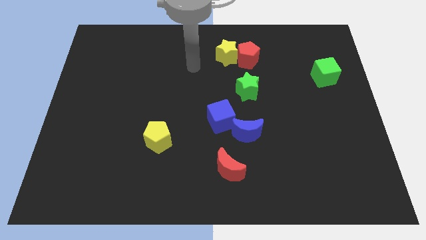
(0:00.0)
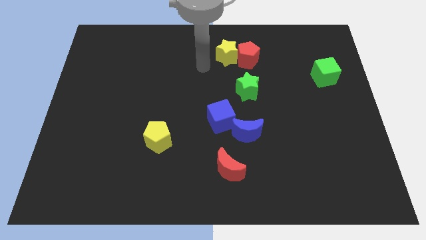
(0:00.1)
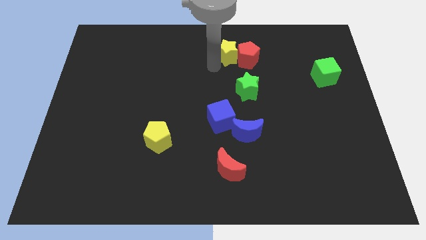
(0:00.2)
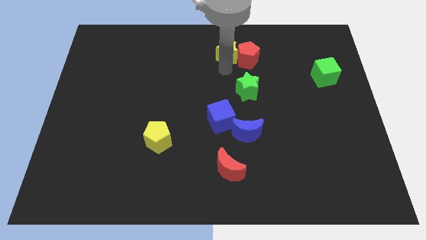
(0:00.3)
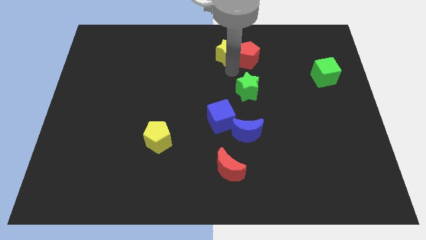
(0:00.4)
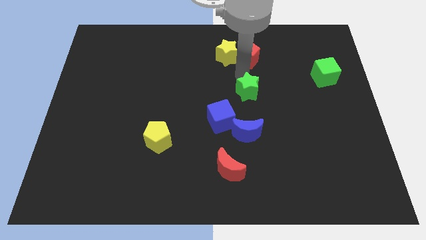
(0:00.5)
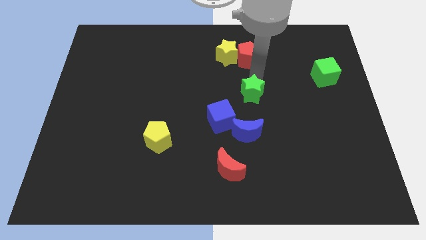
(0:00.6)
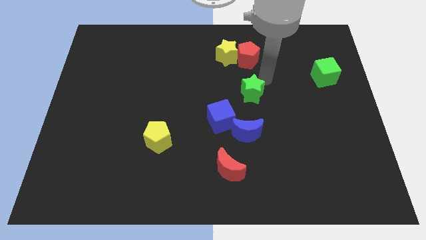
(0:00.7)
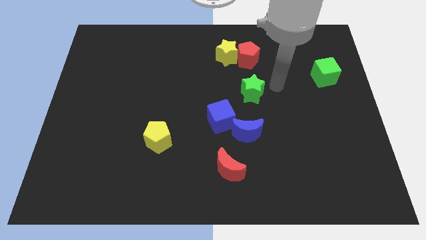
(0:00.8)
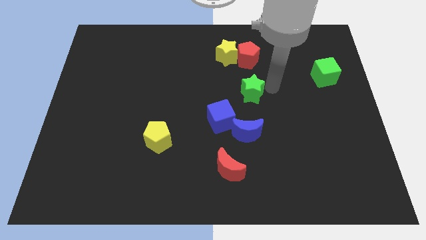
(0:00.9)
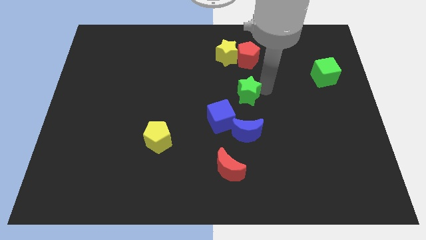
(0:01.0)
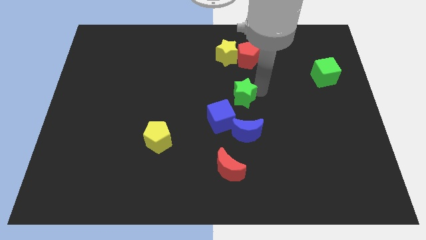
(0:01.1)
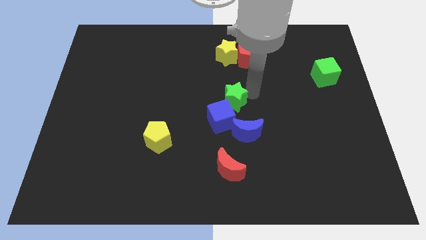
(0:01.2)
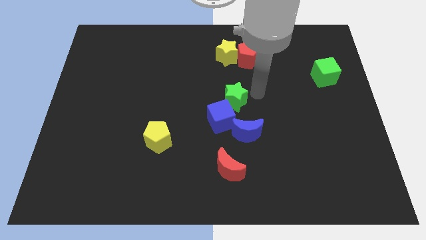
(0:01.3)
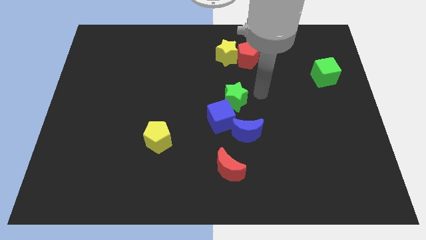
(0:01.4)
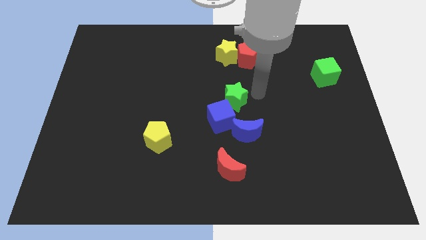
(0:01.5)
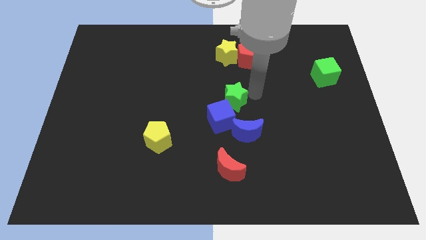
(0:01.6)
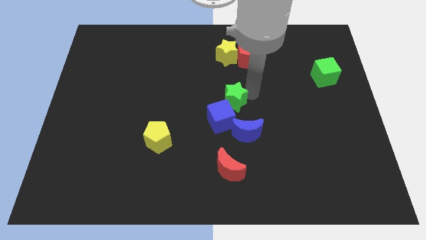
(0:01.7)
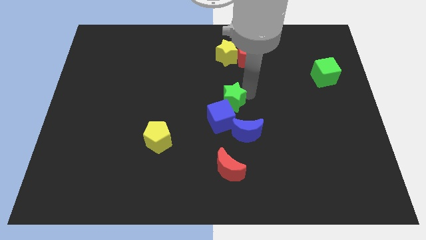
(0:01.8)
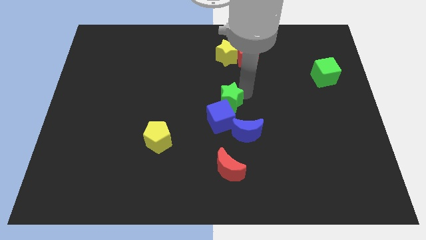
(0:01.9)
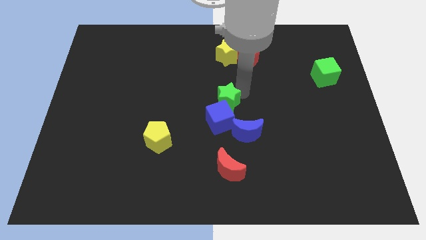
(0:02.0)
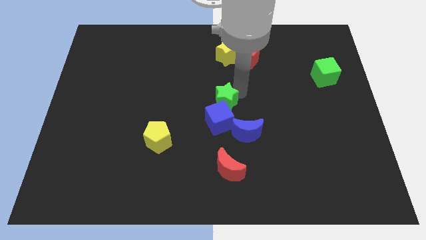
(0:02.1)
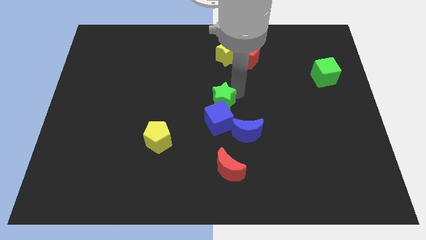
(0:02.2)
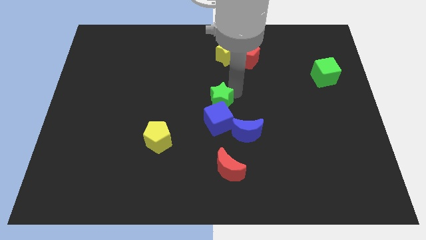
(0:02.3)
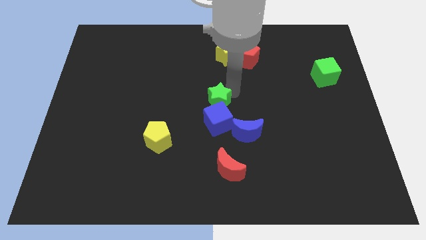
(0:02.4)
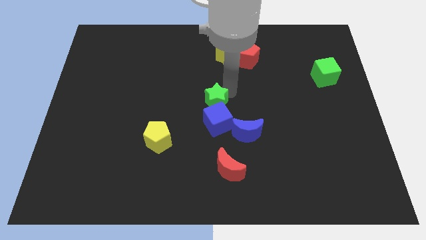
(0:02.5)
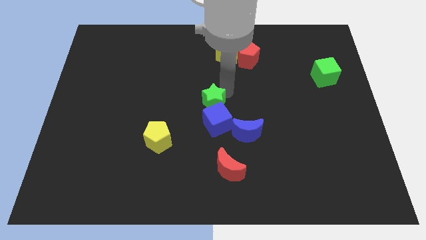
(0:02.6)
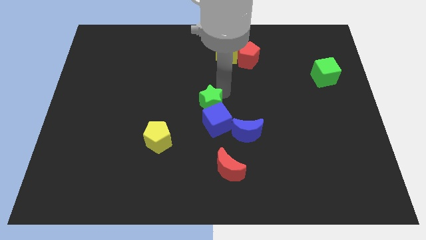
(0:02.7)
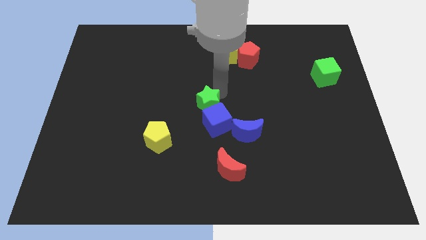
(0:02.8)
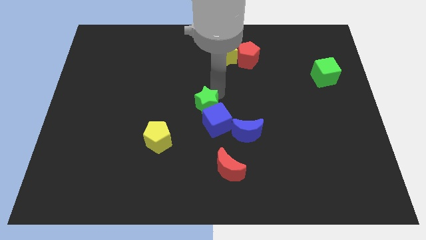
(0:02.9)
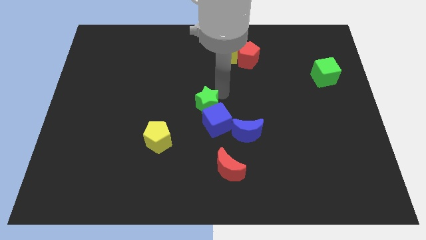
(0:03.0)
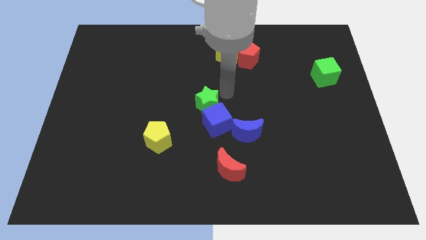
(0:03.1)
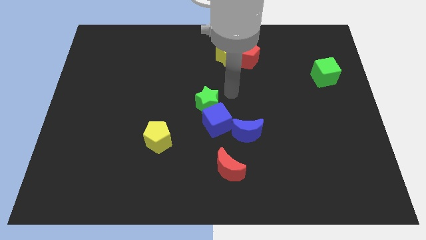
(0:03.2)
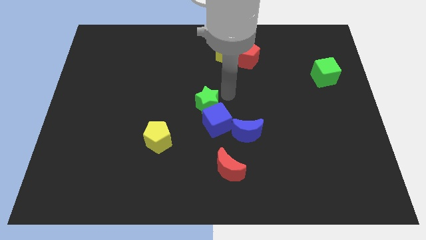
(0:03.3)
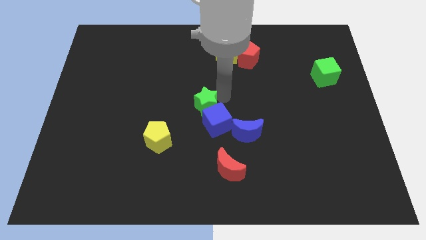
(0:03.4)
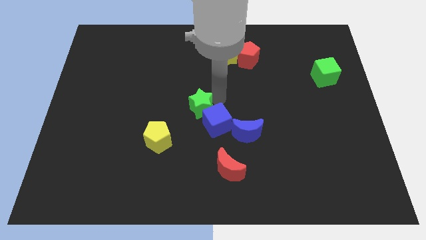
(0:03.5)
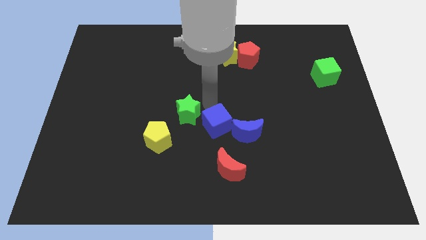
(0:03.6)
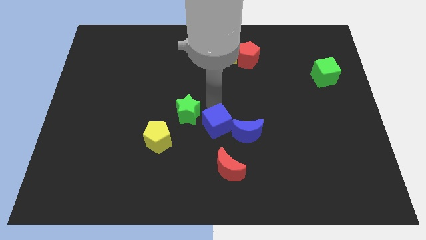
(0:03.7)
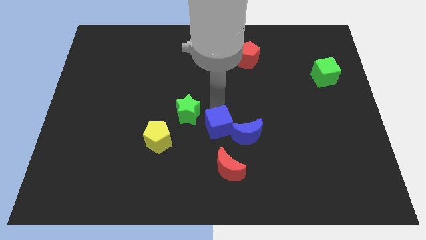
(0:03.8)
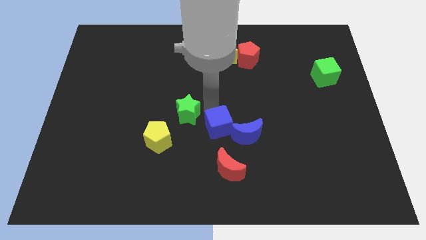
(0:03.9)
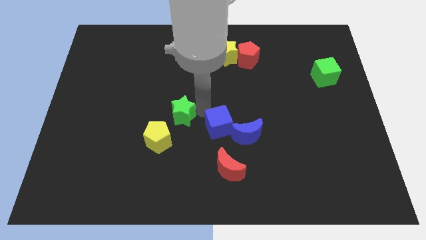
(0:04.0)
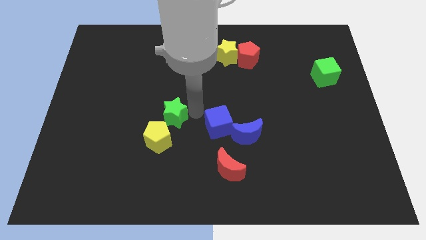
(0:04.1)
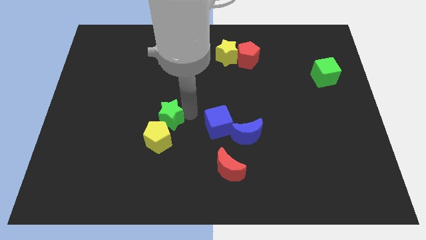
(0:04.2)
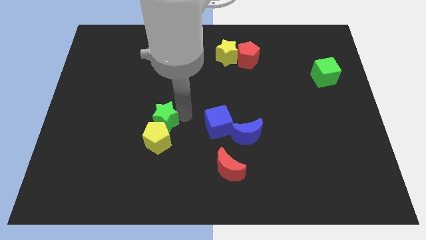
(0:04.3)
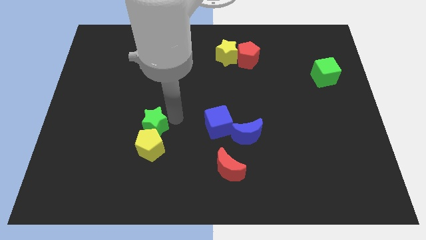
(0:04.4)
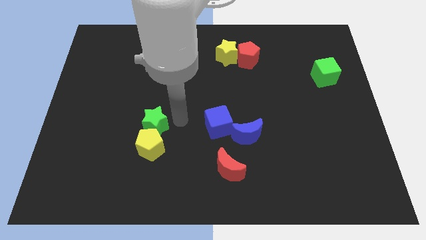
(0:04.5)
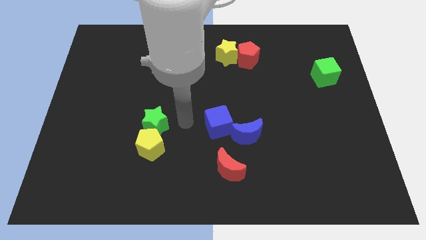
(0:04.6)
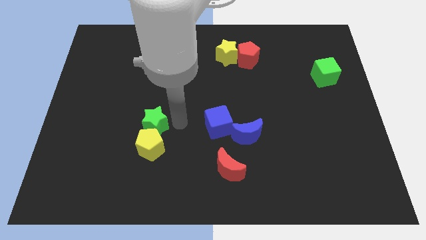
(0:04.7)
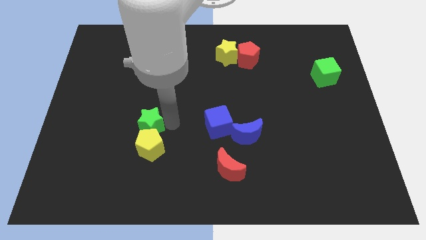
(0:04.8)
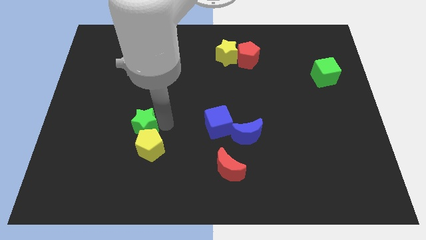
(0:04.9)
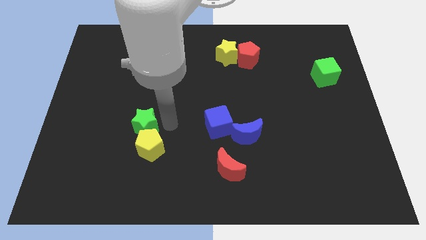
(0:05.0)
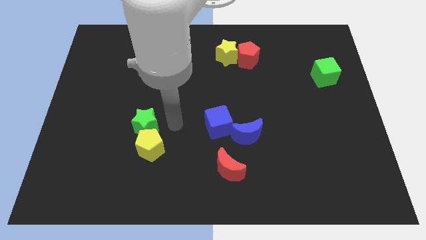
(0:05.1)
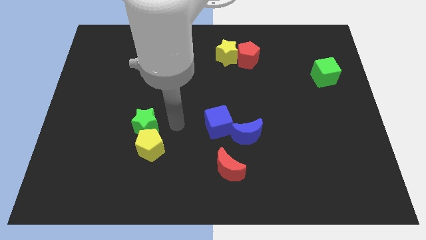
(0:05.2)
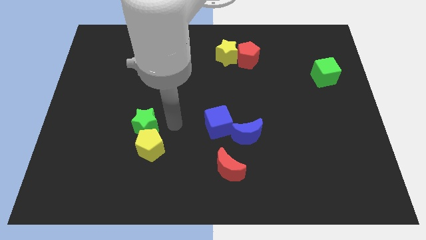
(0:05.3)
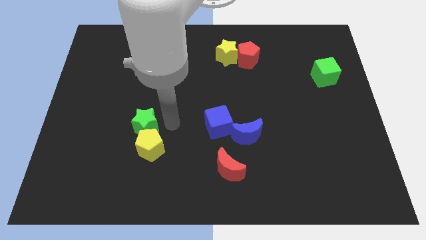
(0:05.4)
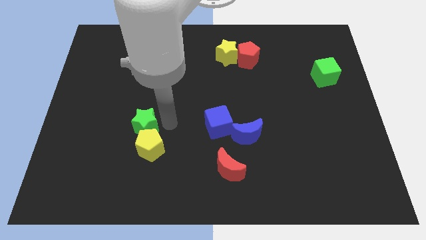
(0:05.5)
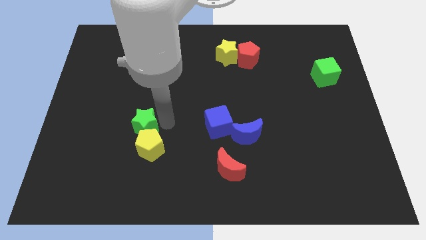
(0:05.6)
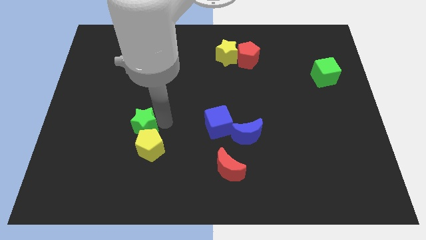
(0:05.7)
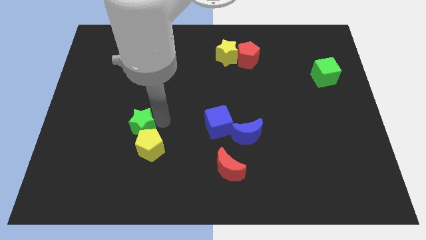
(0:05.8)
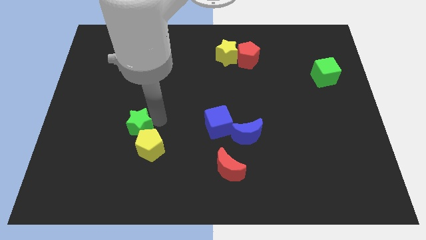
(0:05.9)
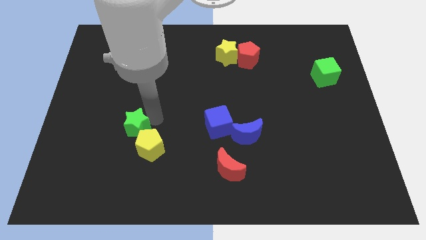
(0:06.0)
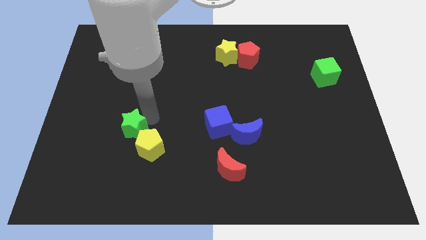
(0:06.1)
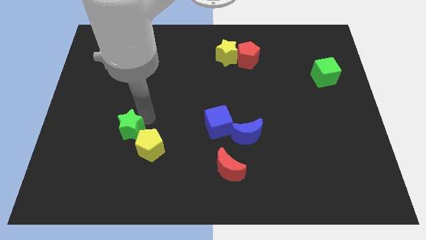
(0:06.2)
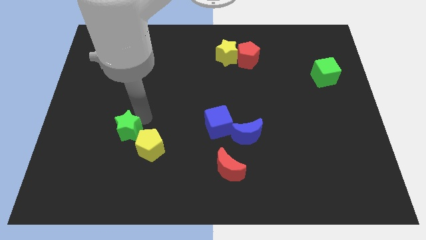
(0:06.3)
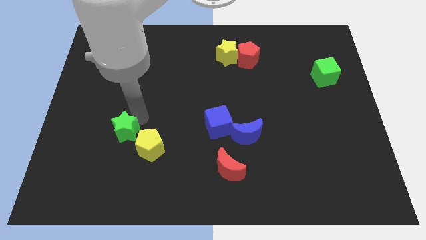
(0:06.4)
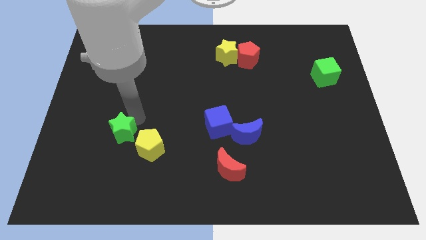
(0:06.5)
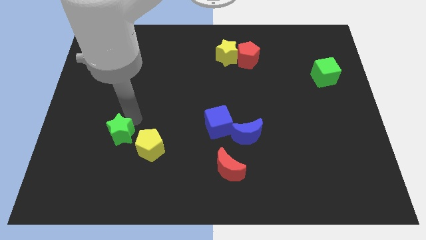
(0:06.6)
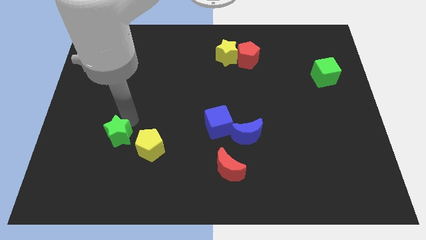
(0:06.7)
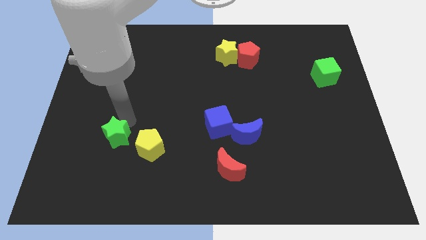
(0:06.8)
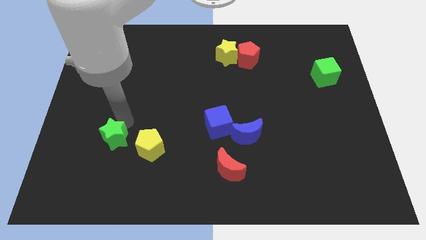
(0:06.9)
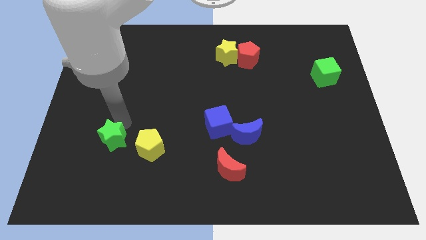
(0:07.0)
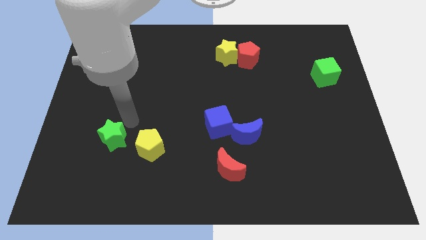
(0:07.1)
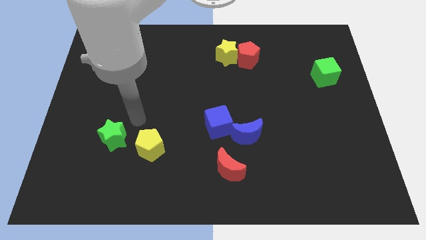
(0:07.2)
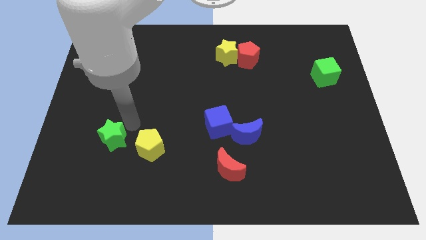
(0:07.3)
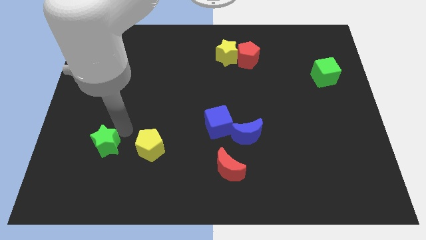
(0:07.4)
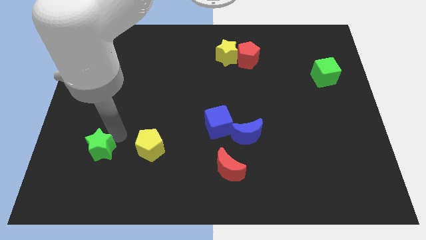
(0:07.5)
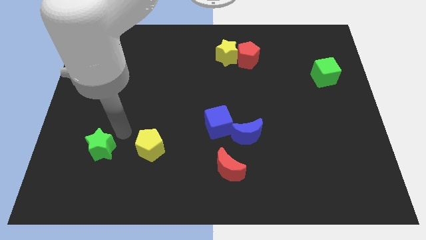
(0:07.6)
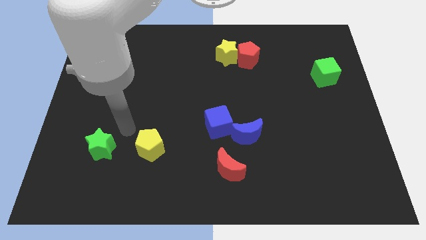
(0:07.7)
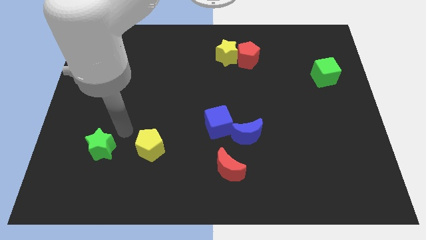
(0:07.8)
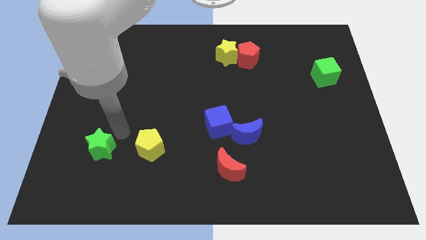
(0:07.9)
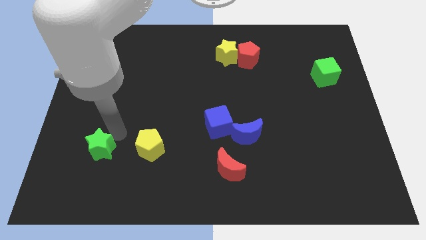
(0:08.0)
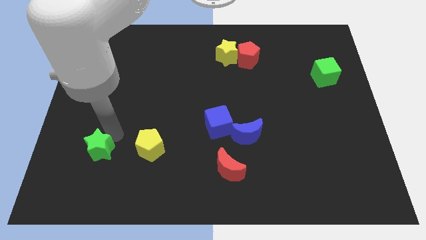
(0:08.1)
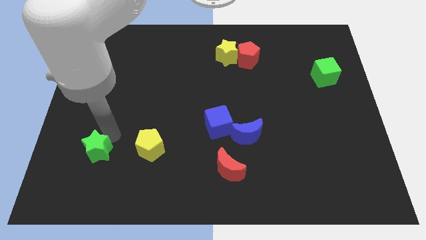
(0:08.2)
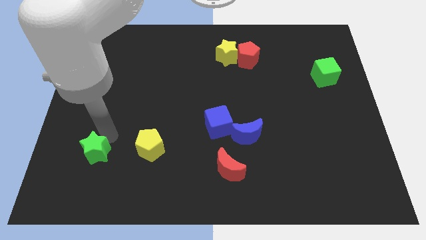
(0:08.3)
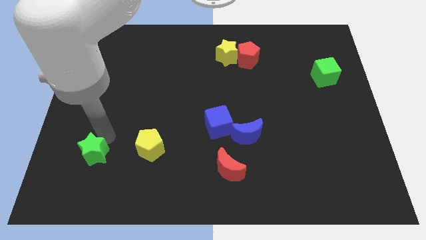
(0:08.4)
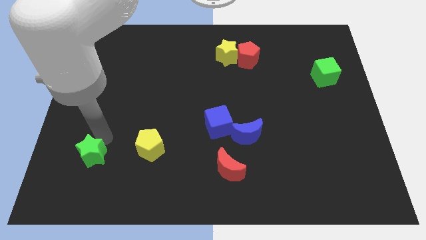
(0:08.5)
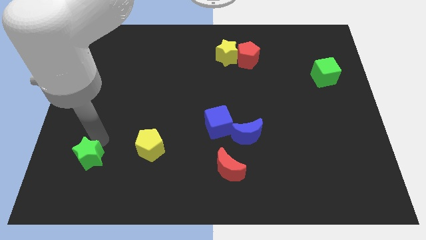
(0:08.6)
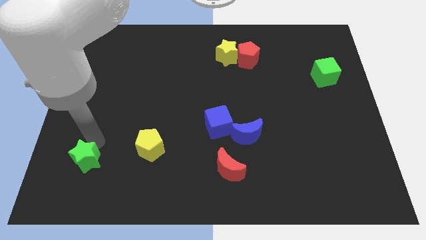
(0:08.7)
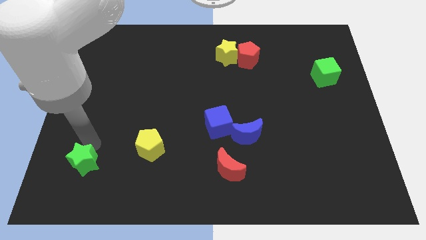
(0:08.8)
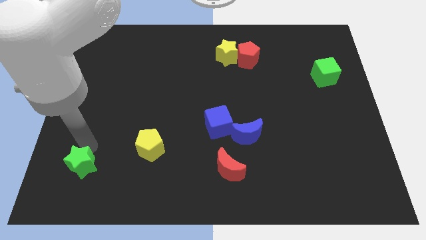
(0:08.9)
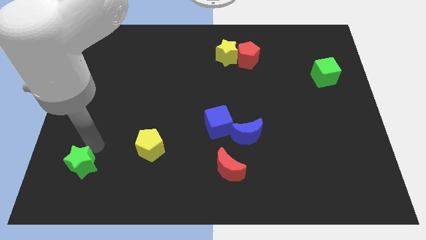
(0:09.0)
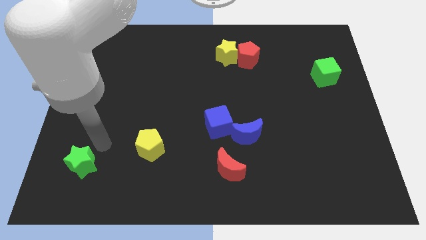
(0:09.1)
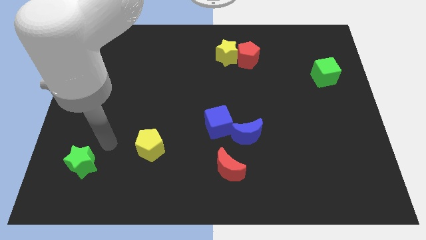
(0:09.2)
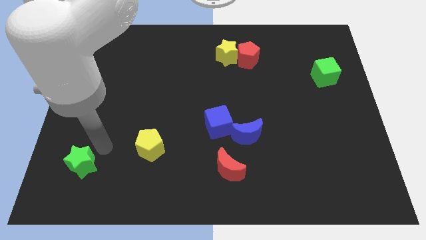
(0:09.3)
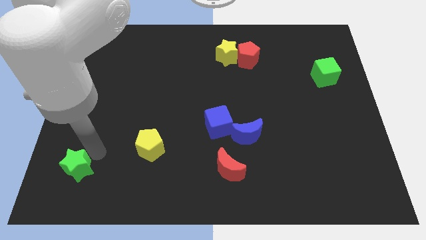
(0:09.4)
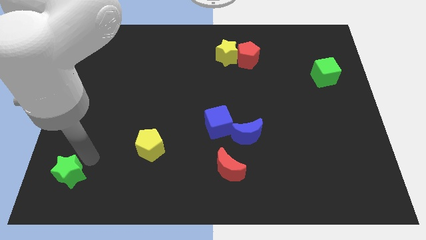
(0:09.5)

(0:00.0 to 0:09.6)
push the green star to the bottom left corner
